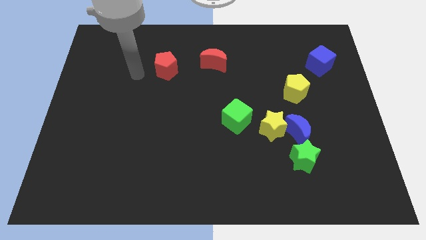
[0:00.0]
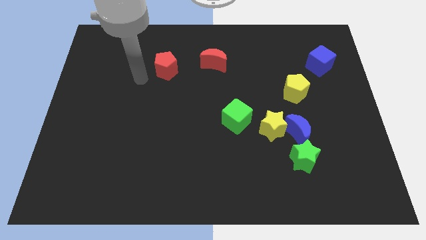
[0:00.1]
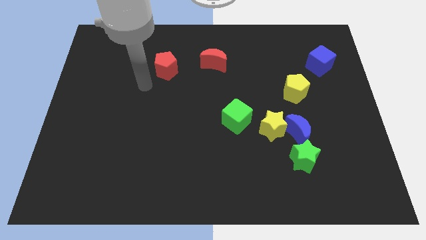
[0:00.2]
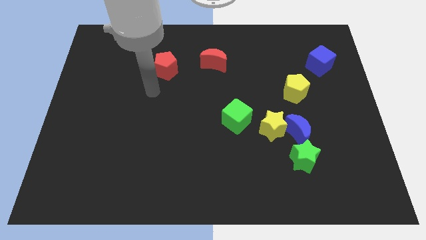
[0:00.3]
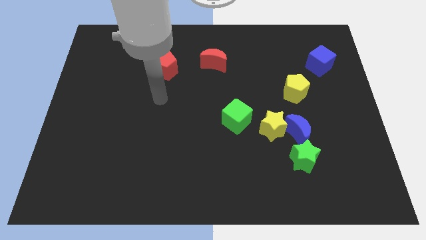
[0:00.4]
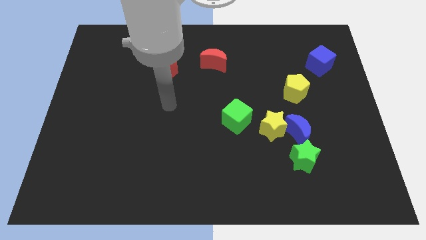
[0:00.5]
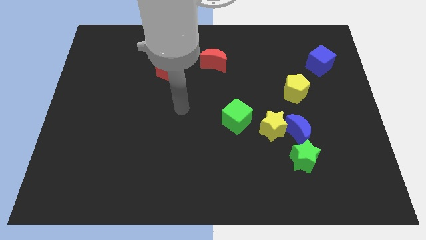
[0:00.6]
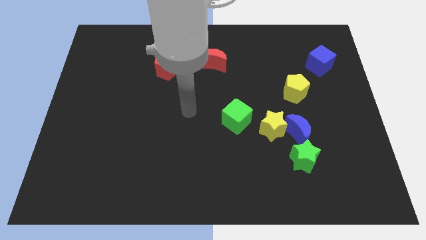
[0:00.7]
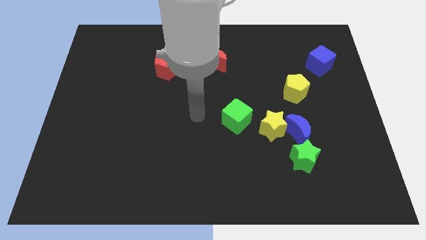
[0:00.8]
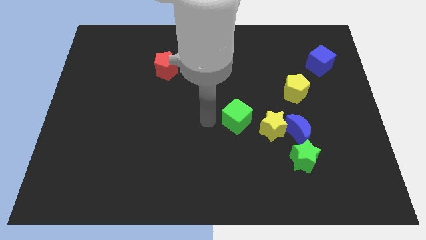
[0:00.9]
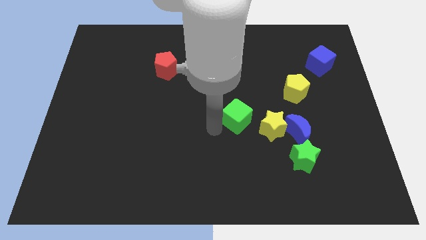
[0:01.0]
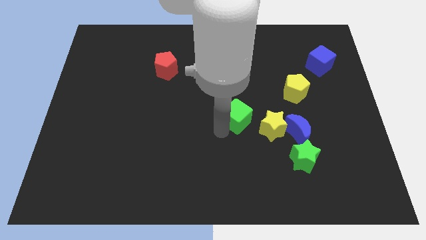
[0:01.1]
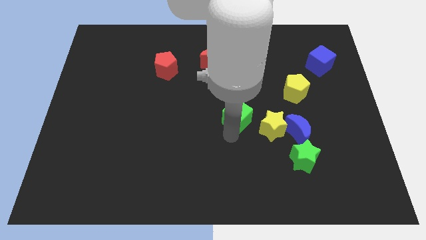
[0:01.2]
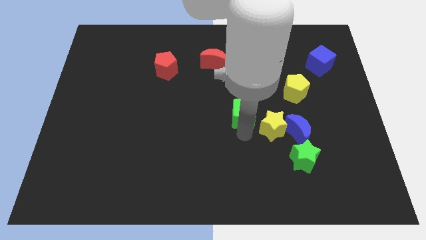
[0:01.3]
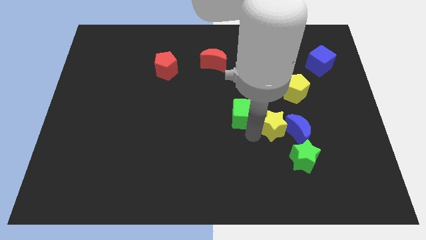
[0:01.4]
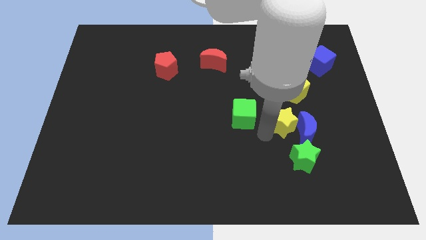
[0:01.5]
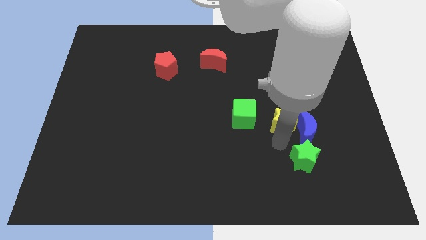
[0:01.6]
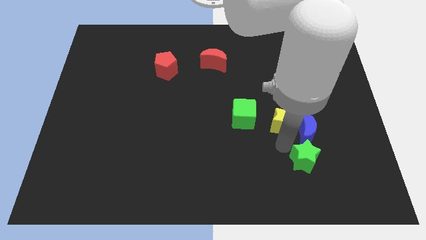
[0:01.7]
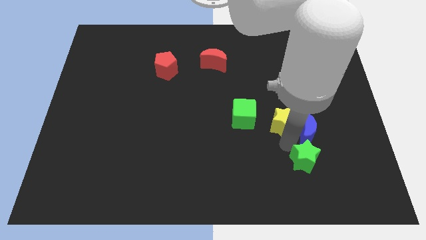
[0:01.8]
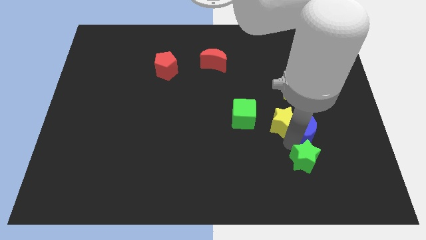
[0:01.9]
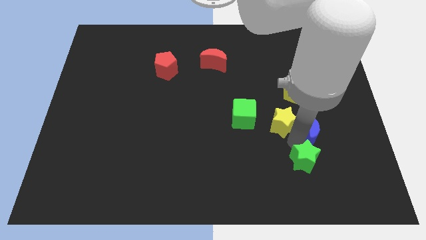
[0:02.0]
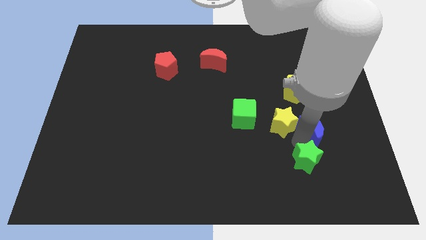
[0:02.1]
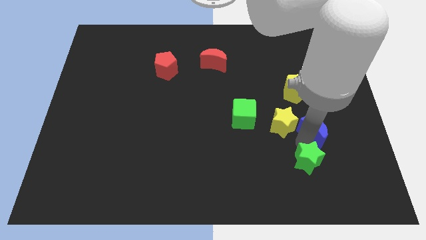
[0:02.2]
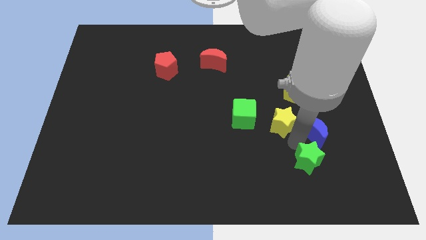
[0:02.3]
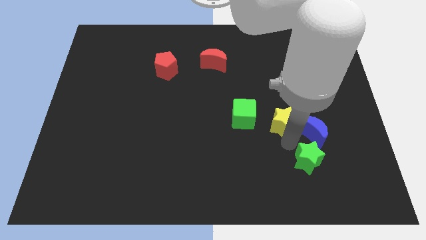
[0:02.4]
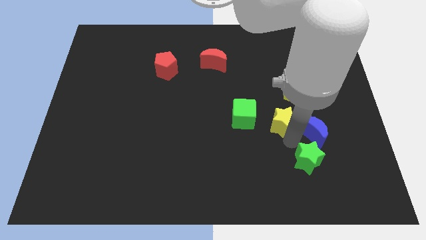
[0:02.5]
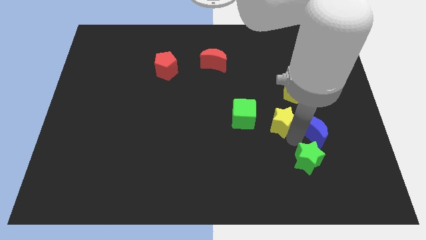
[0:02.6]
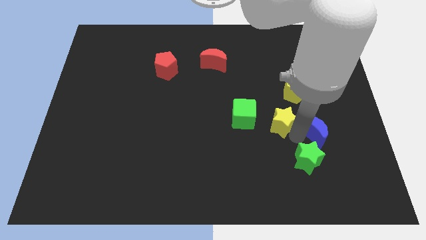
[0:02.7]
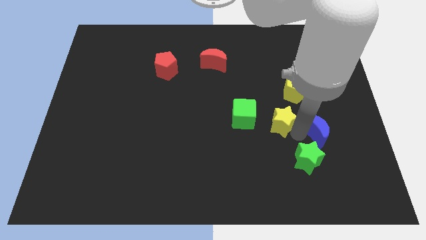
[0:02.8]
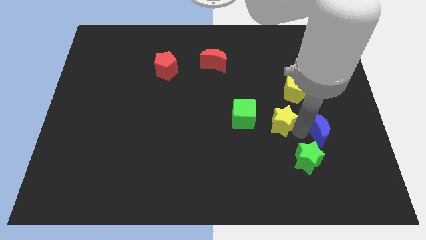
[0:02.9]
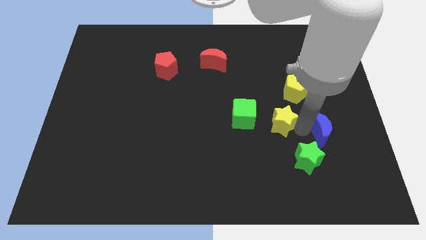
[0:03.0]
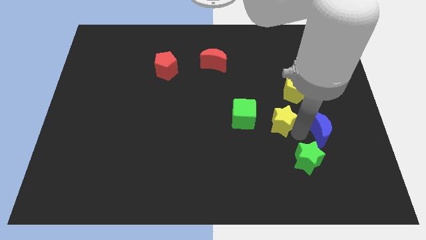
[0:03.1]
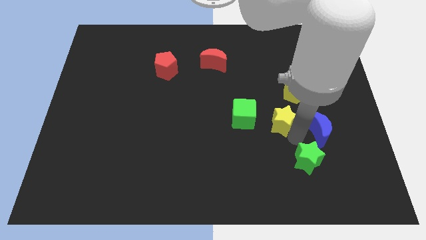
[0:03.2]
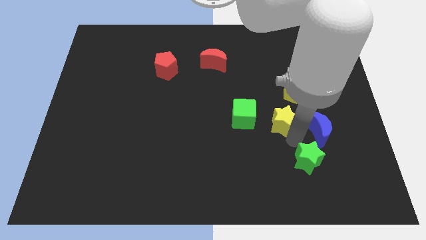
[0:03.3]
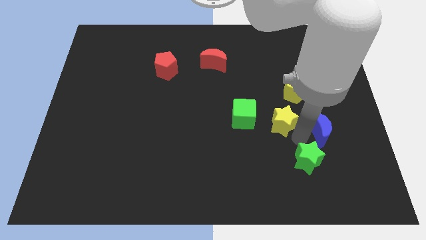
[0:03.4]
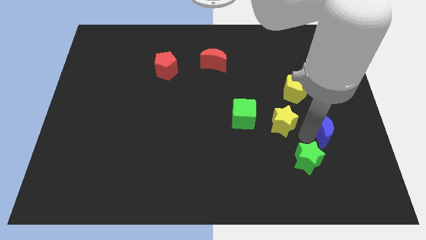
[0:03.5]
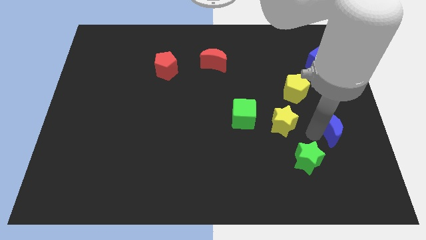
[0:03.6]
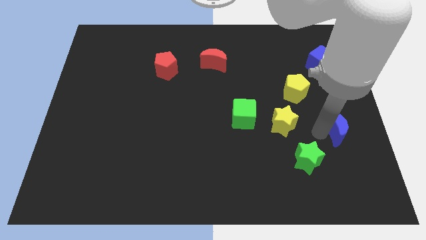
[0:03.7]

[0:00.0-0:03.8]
pull the blue moon apart from the yellow star and green star

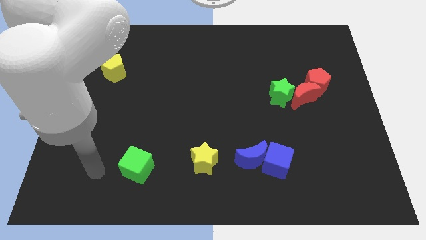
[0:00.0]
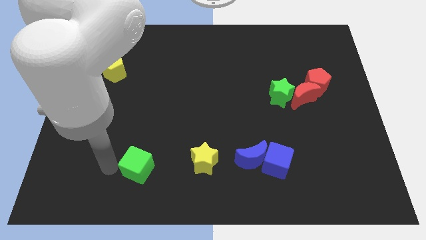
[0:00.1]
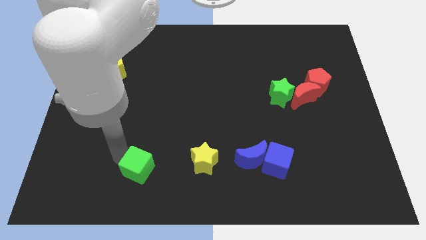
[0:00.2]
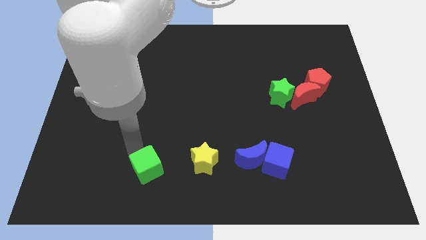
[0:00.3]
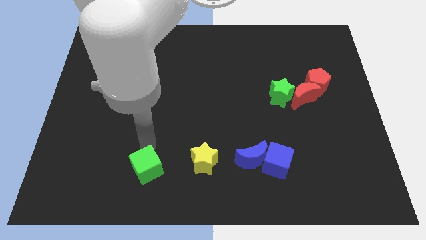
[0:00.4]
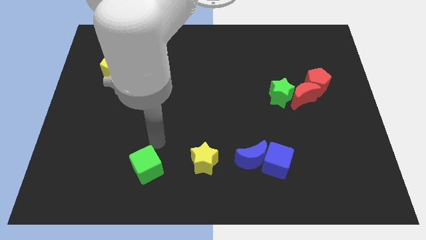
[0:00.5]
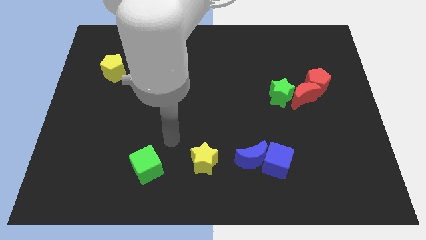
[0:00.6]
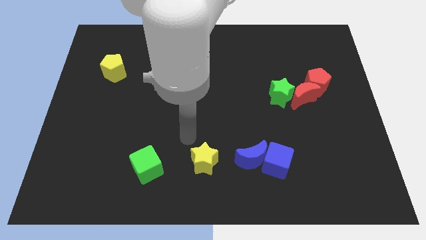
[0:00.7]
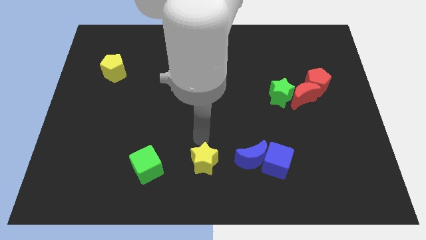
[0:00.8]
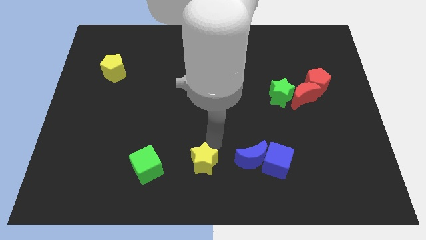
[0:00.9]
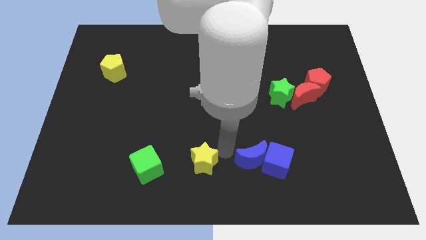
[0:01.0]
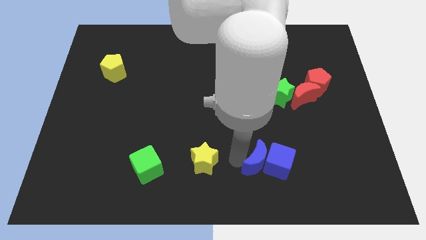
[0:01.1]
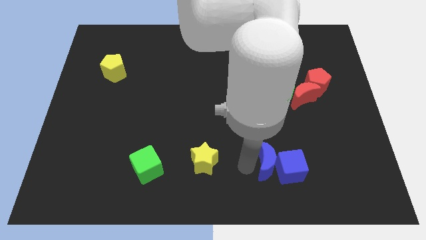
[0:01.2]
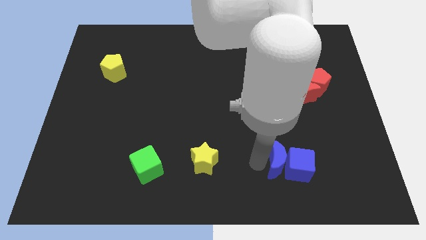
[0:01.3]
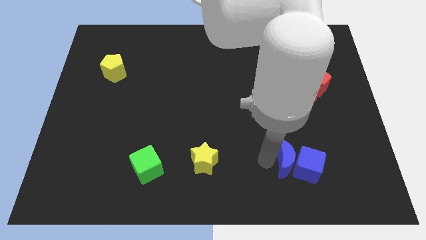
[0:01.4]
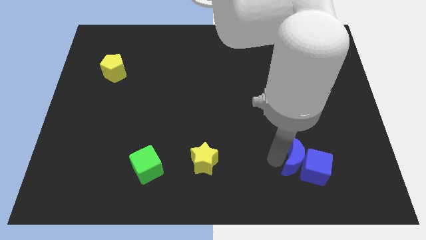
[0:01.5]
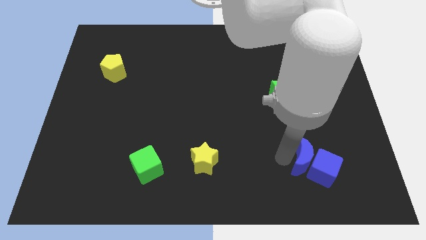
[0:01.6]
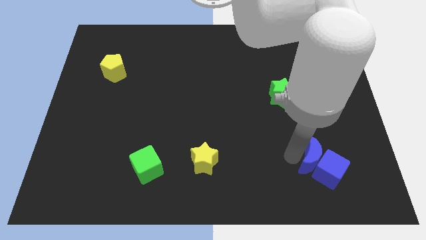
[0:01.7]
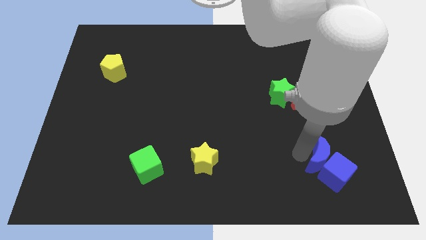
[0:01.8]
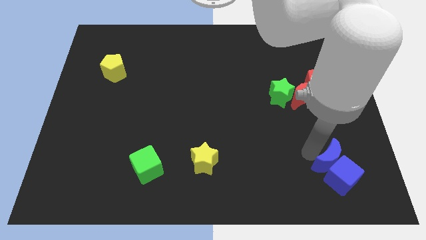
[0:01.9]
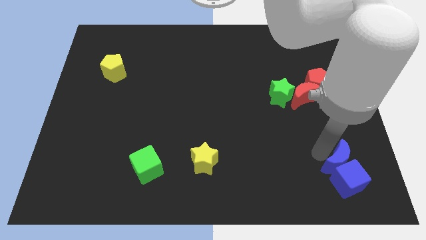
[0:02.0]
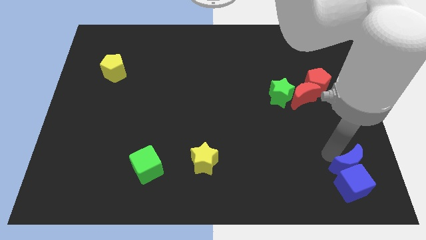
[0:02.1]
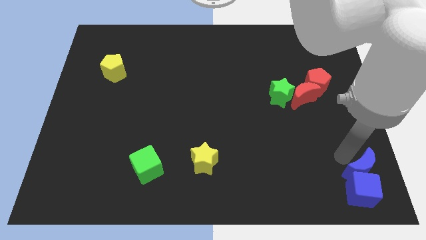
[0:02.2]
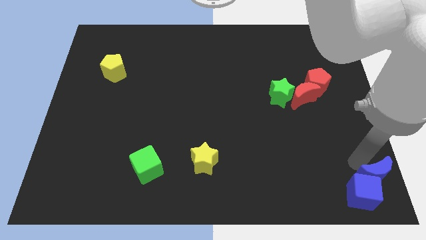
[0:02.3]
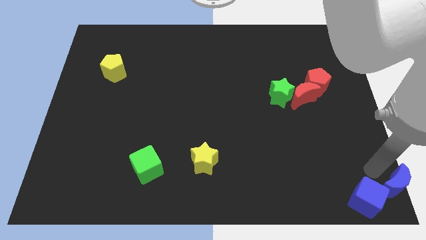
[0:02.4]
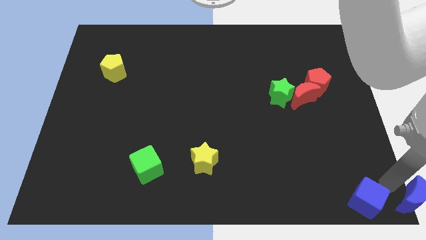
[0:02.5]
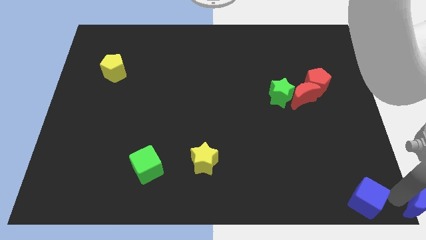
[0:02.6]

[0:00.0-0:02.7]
separate the blue cube from the blue moon

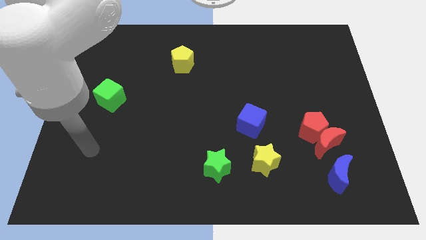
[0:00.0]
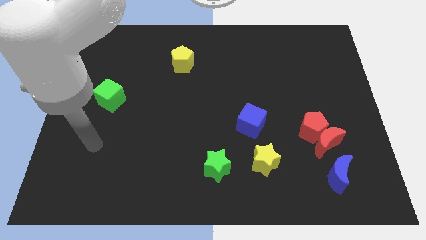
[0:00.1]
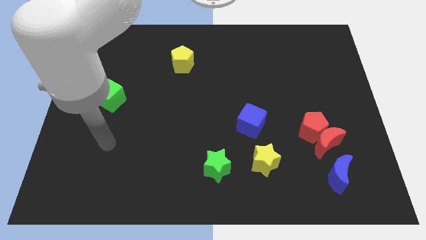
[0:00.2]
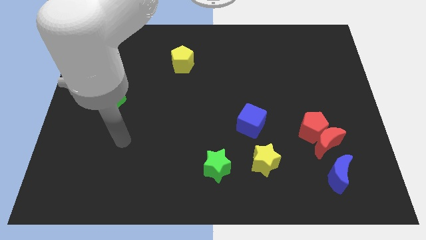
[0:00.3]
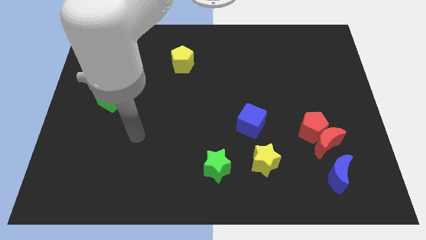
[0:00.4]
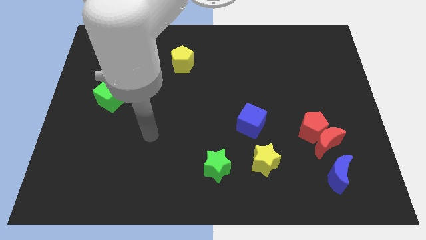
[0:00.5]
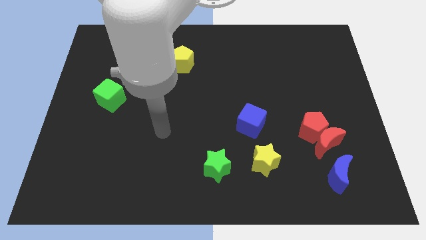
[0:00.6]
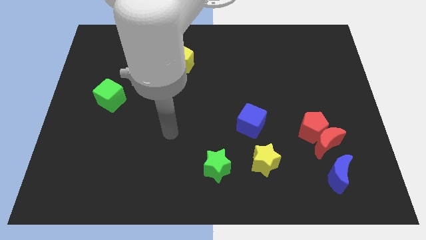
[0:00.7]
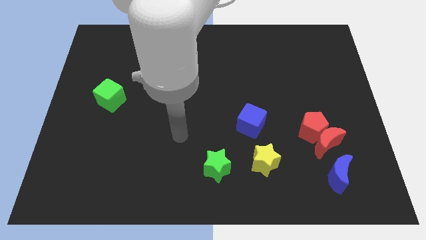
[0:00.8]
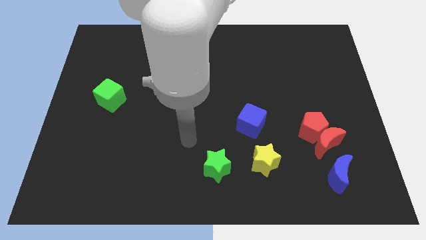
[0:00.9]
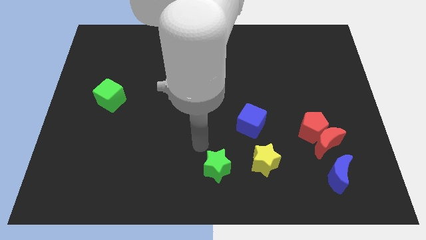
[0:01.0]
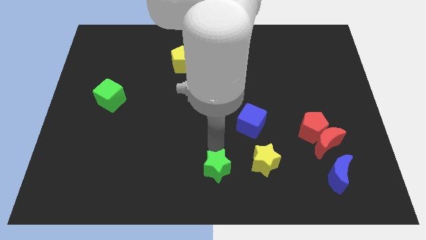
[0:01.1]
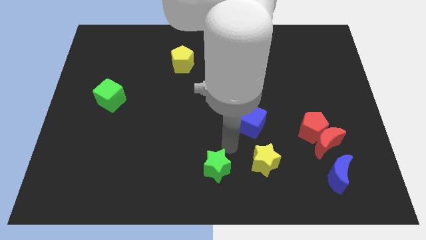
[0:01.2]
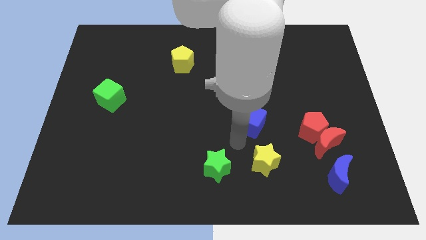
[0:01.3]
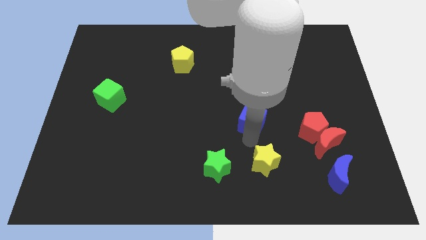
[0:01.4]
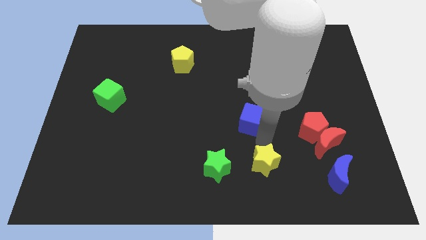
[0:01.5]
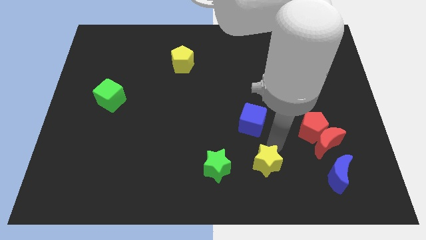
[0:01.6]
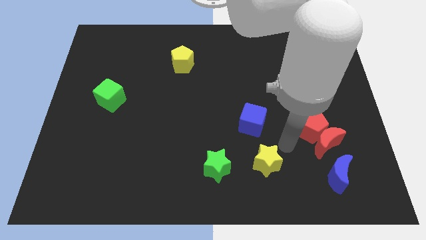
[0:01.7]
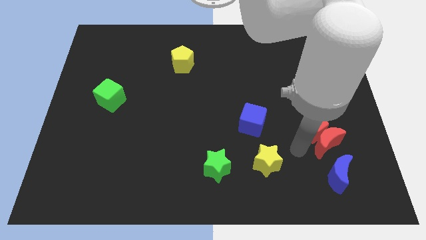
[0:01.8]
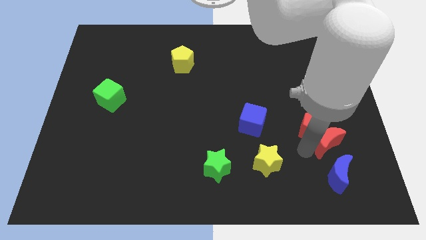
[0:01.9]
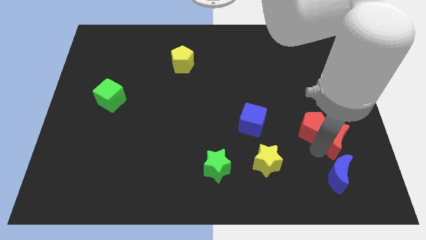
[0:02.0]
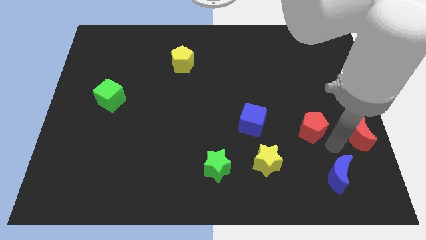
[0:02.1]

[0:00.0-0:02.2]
move the red pentagon away from the red moon

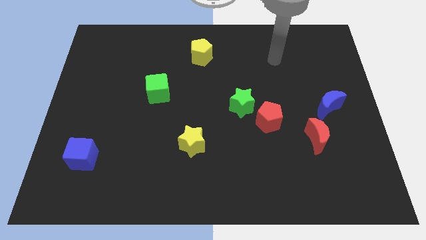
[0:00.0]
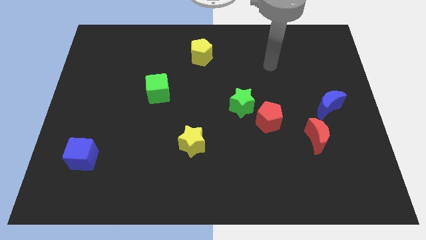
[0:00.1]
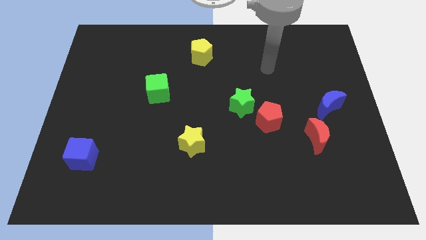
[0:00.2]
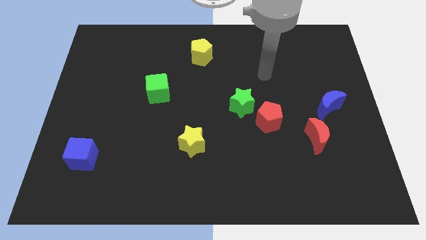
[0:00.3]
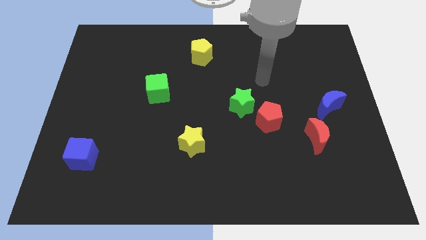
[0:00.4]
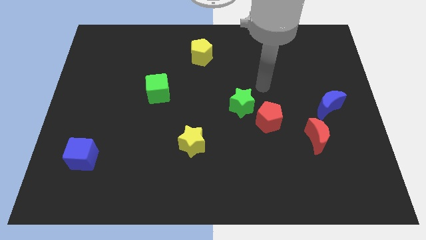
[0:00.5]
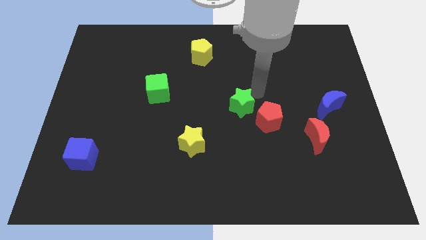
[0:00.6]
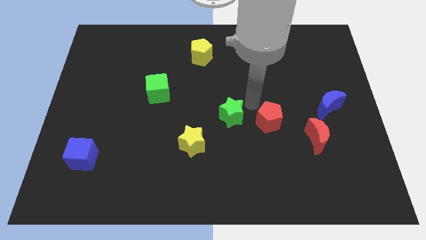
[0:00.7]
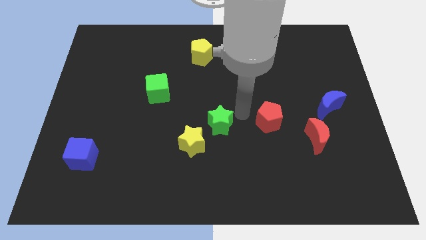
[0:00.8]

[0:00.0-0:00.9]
move the red pentagon away from the green star
